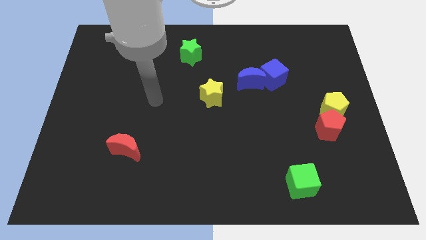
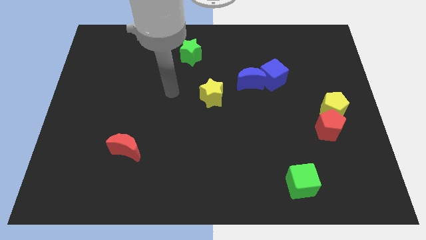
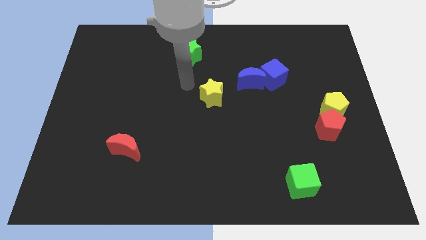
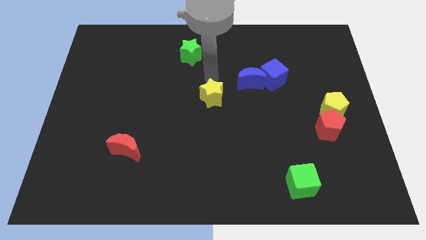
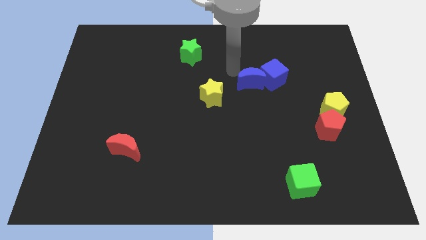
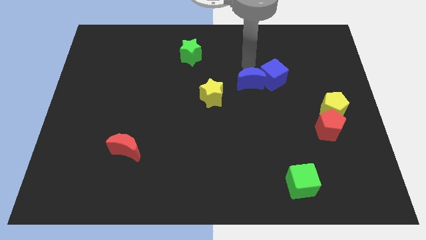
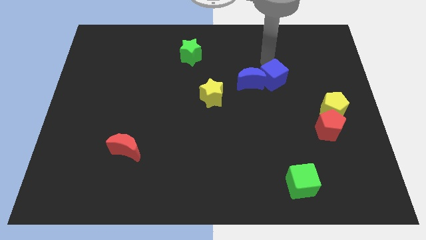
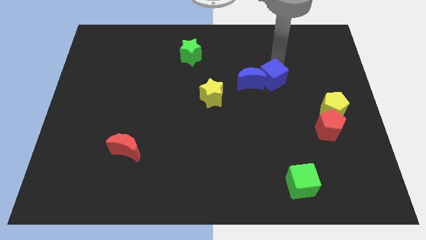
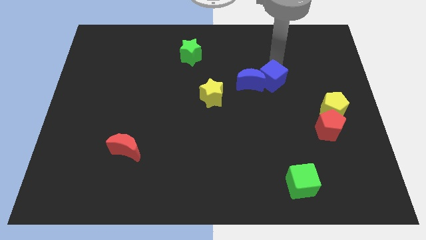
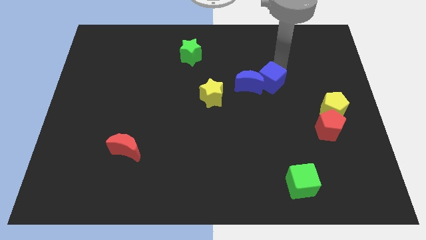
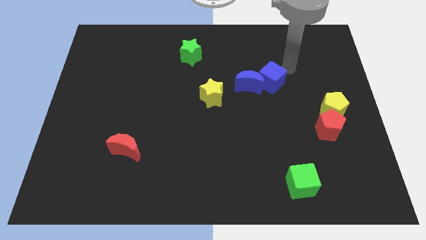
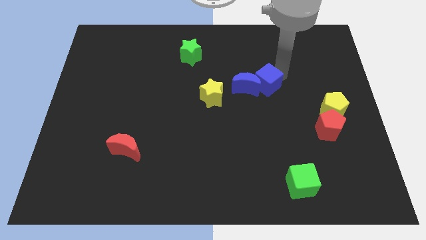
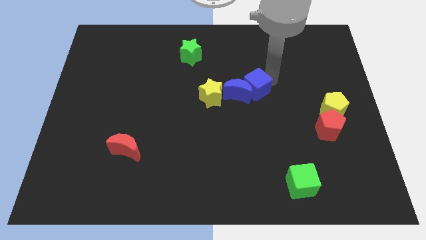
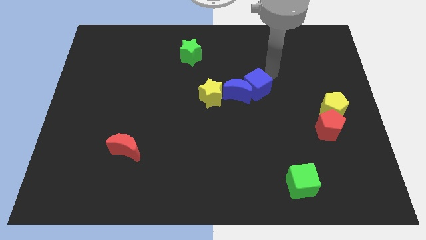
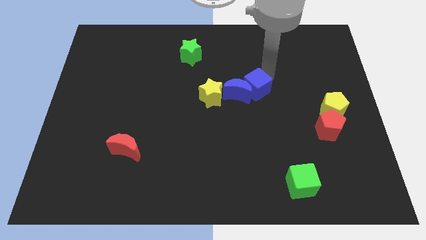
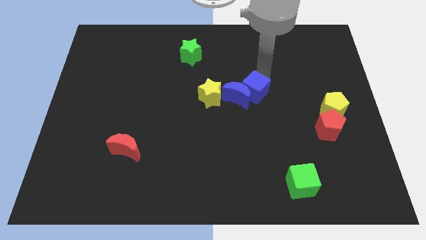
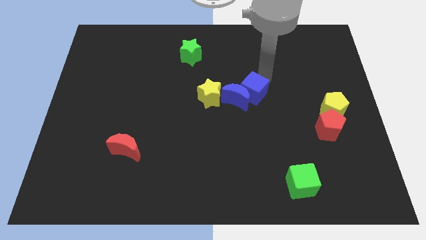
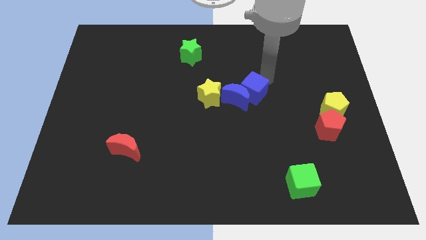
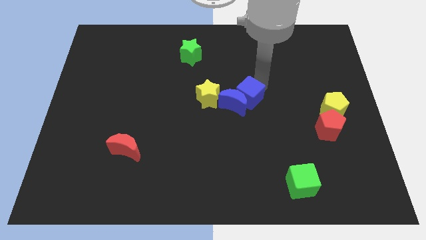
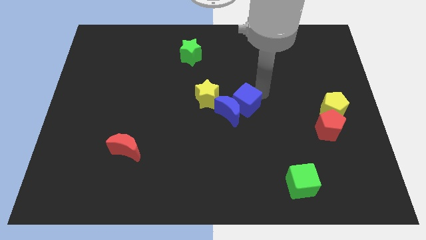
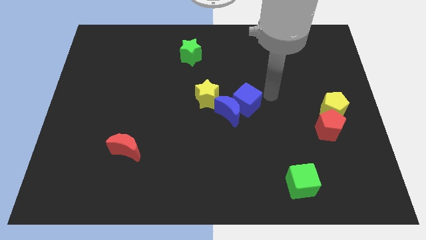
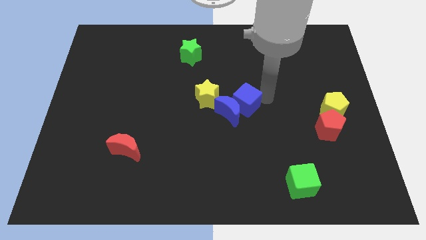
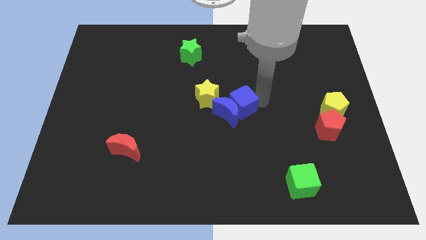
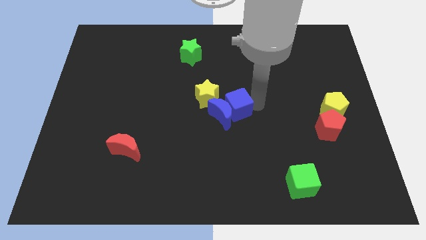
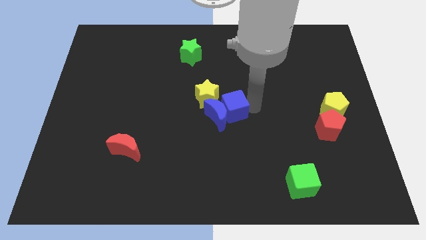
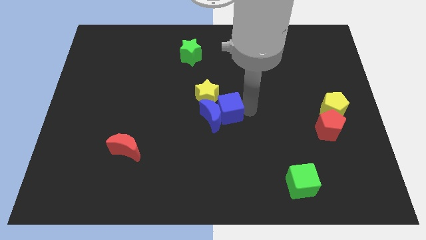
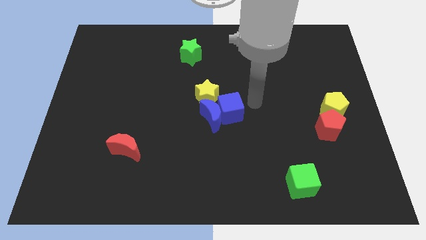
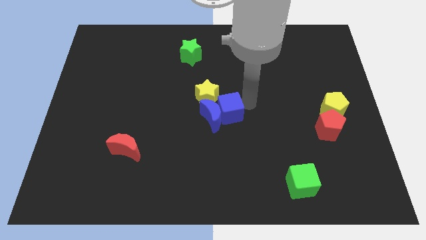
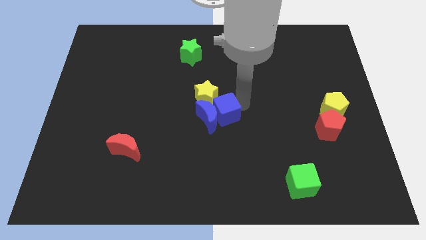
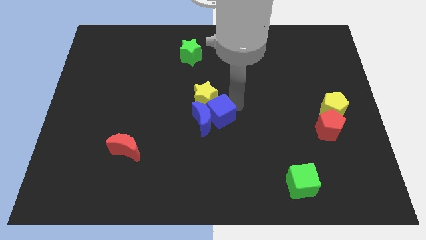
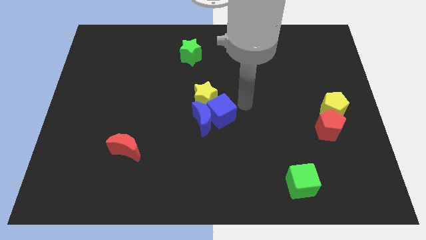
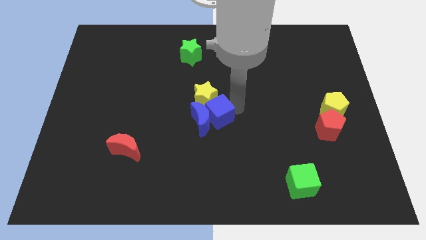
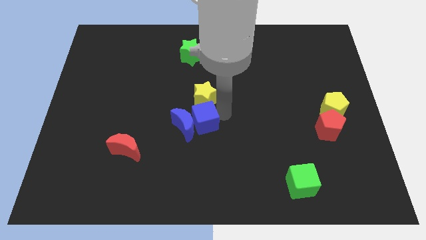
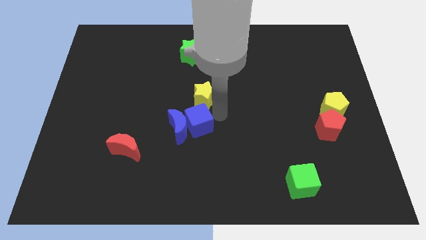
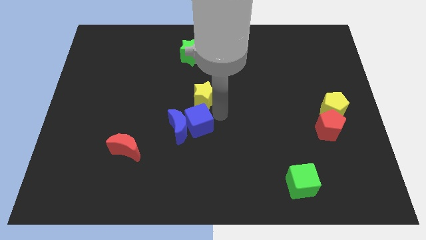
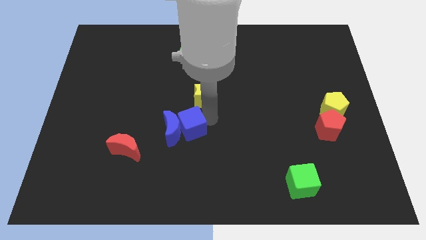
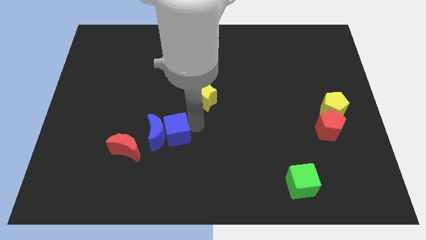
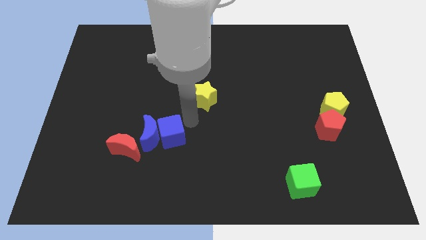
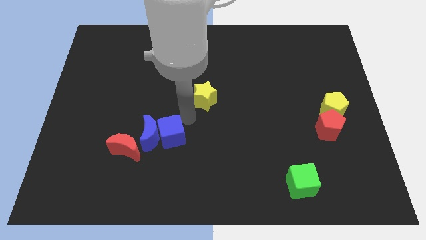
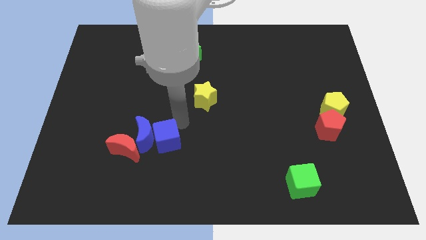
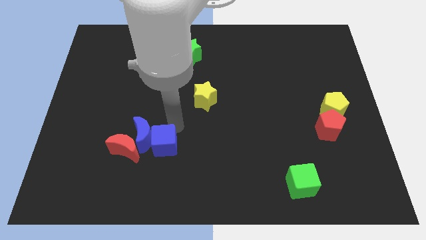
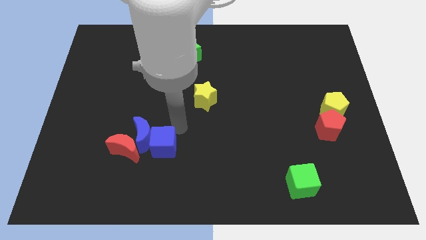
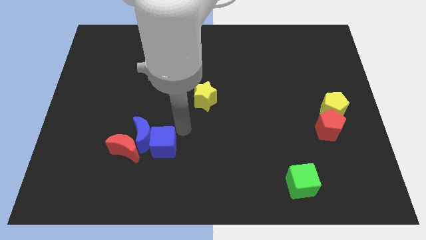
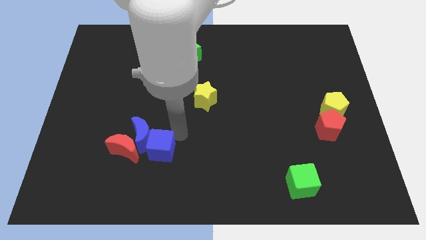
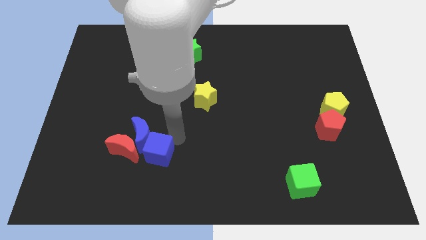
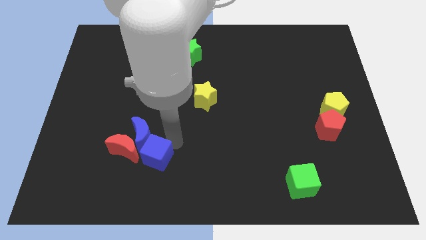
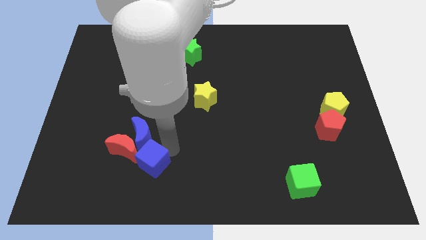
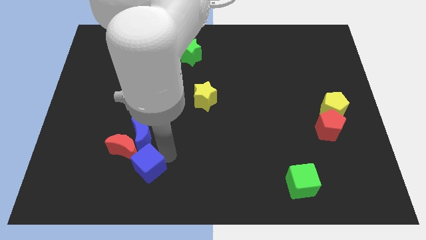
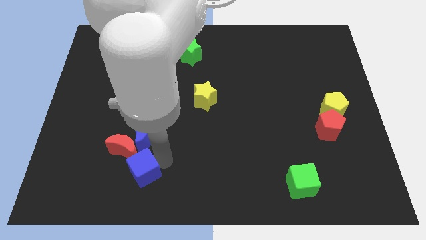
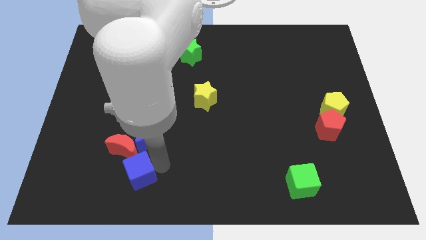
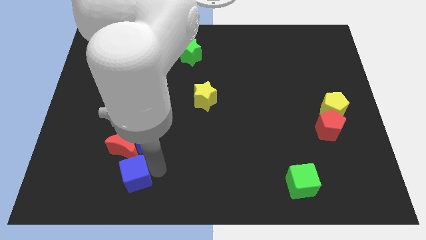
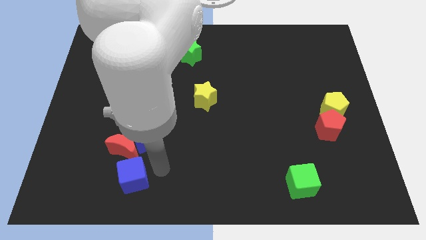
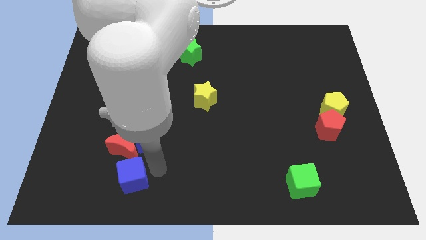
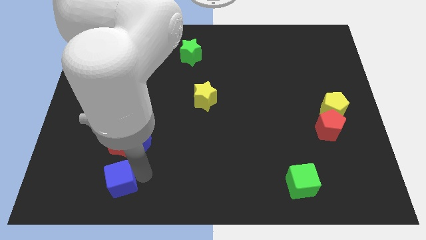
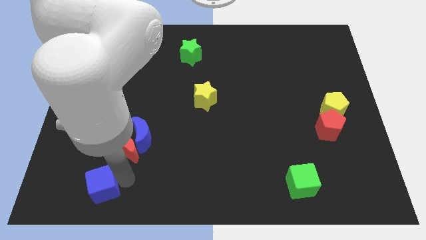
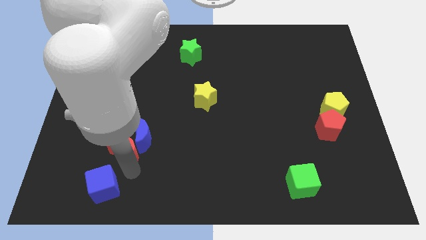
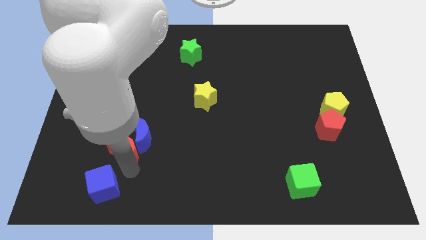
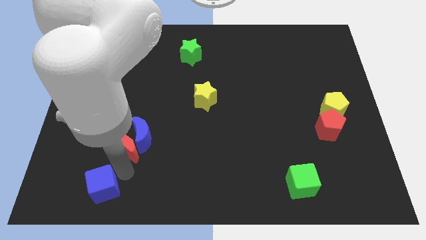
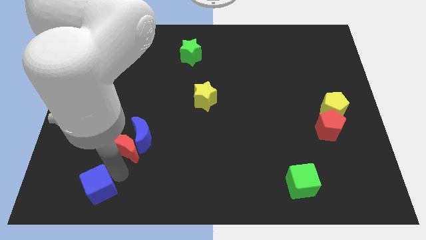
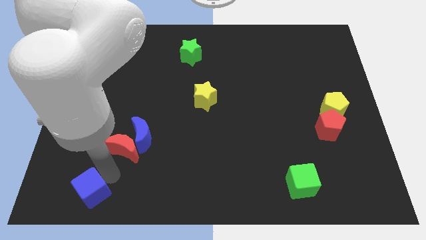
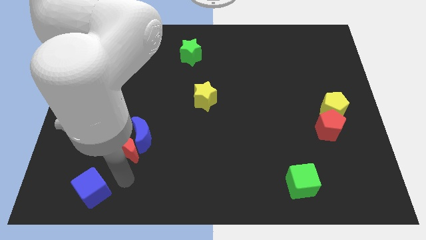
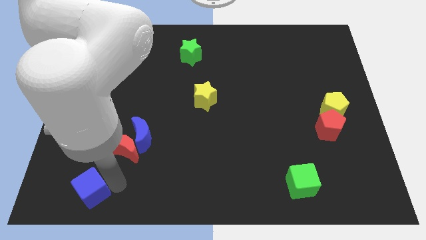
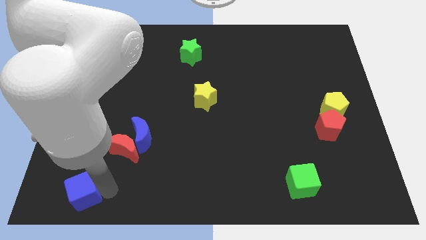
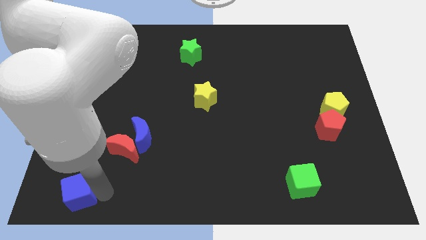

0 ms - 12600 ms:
slide the blue cube to the lower left corner
